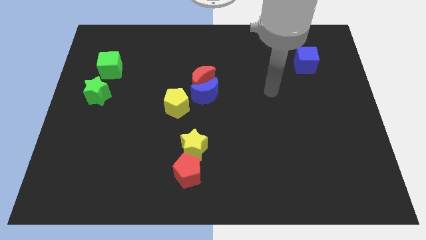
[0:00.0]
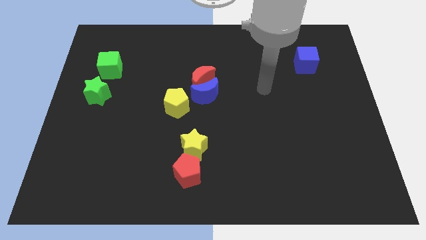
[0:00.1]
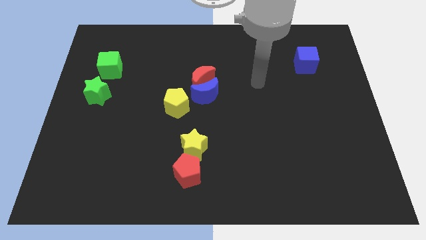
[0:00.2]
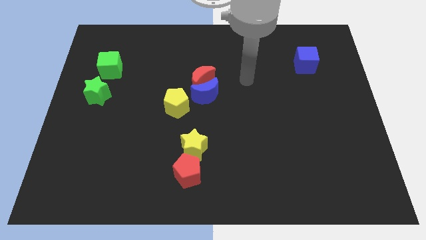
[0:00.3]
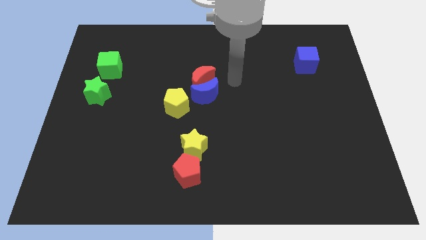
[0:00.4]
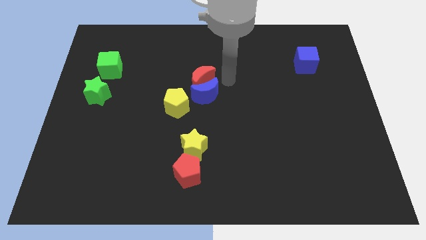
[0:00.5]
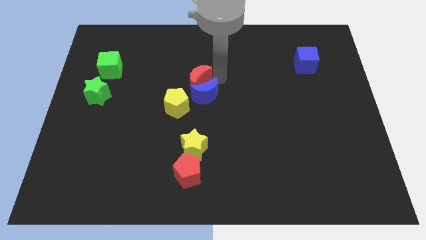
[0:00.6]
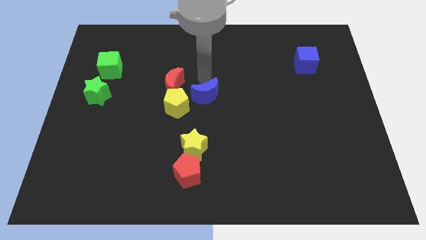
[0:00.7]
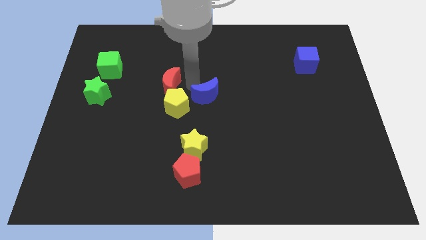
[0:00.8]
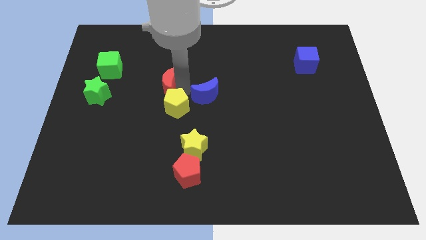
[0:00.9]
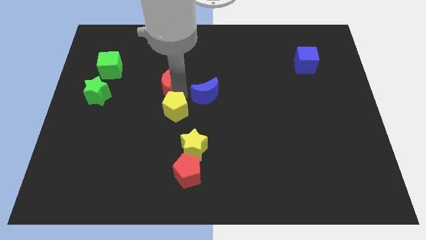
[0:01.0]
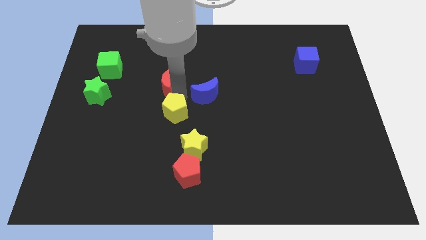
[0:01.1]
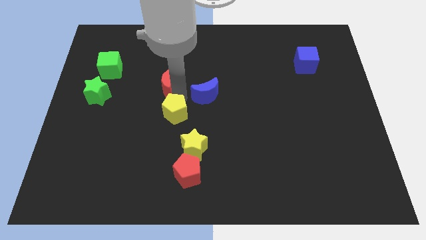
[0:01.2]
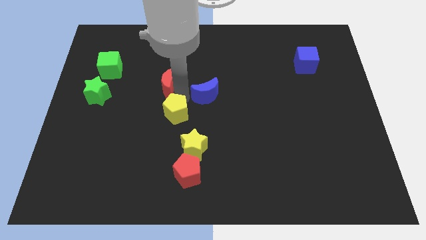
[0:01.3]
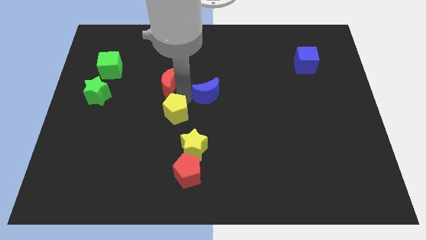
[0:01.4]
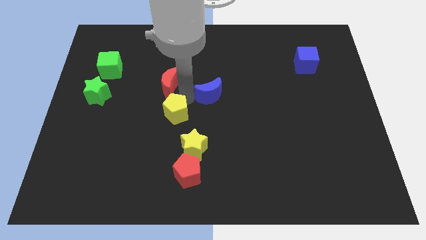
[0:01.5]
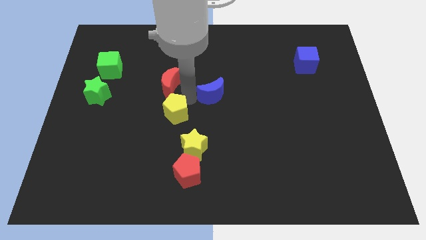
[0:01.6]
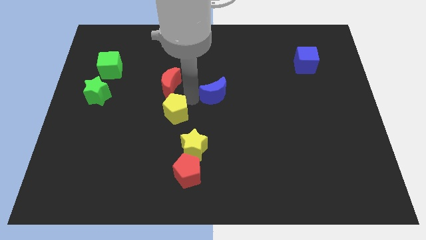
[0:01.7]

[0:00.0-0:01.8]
separate the blue moon from the red moon and yellow pentagon

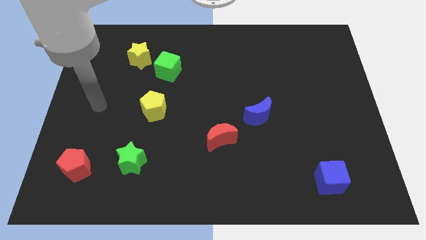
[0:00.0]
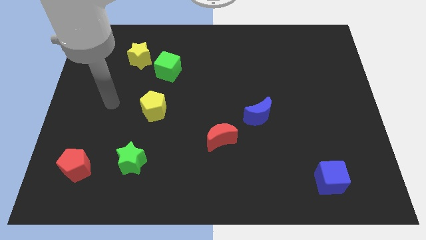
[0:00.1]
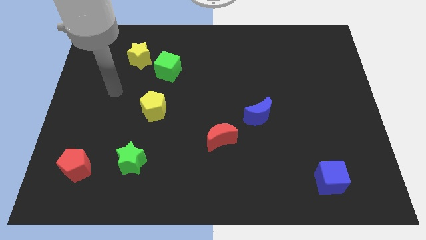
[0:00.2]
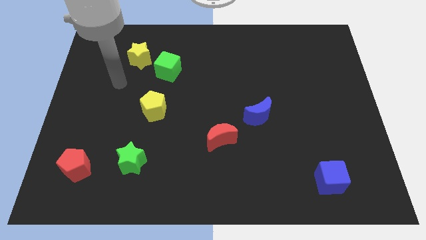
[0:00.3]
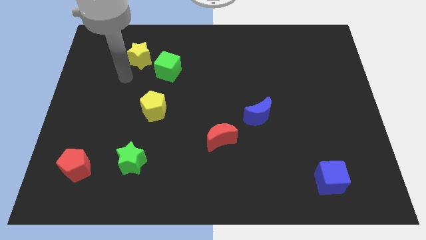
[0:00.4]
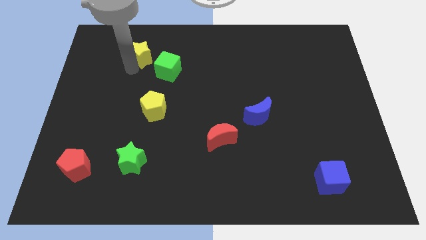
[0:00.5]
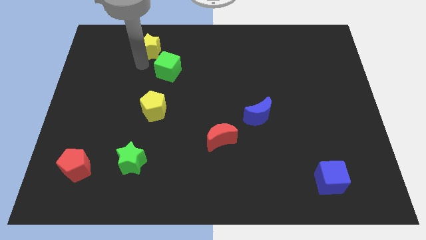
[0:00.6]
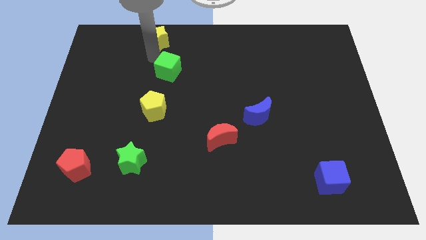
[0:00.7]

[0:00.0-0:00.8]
pull the green cube apart from the yellow star

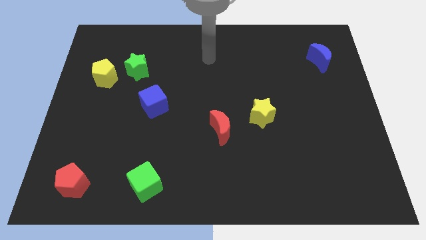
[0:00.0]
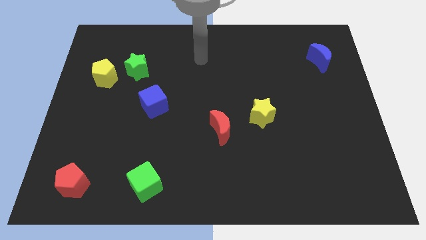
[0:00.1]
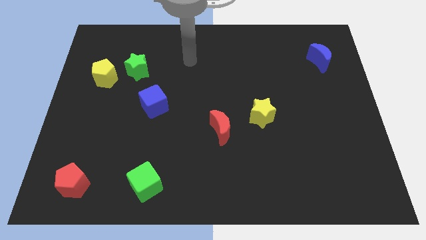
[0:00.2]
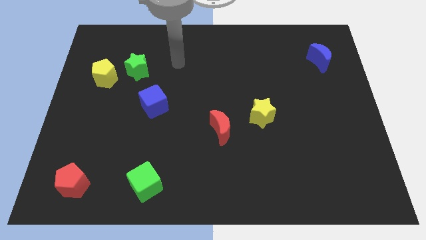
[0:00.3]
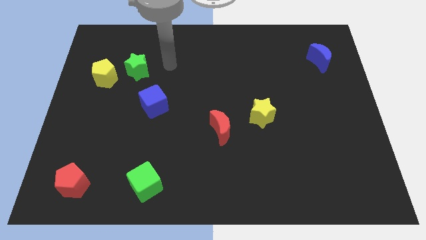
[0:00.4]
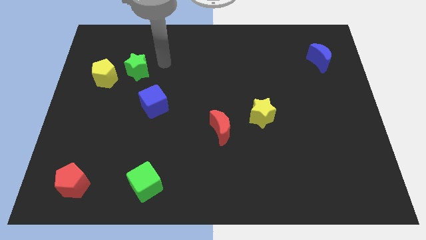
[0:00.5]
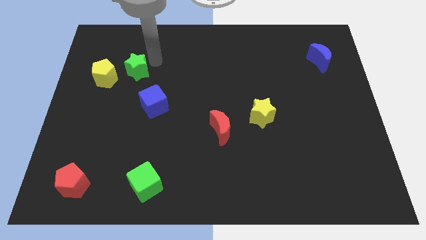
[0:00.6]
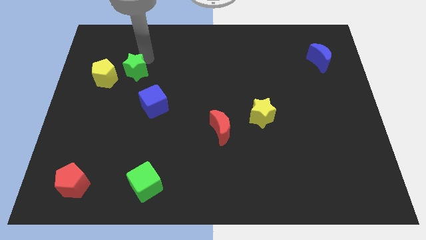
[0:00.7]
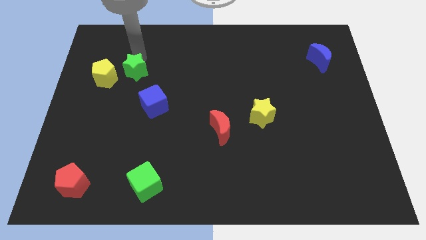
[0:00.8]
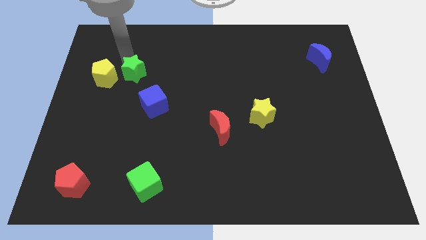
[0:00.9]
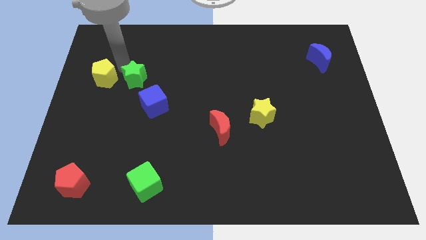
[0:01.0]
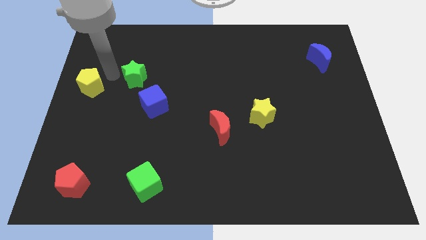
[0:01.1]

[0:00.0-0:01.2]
separate the green star from the yellow pentagon

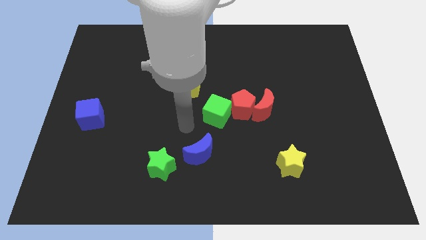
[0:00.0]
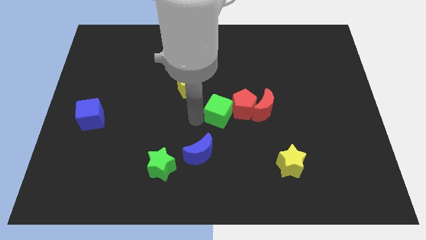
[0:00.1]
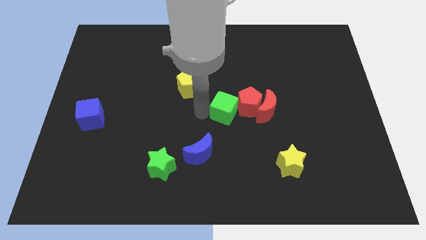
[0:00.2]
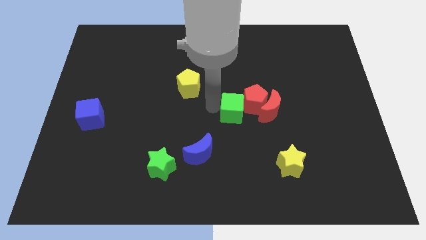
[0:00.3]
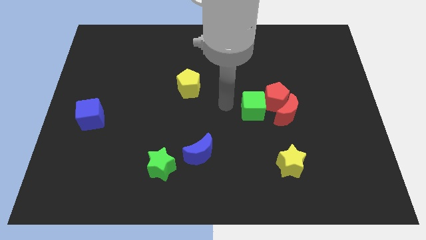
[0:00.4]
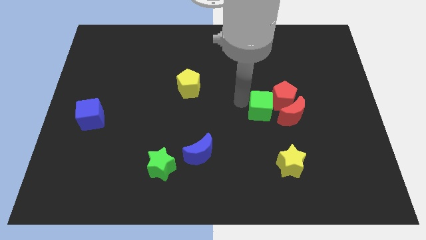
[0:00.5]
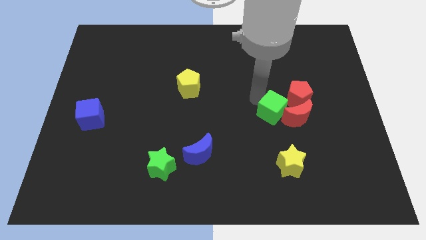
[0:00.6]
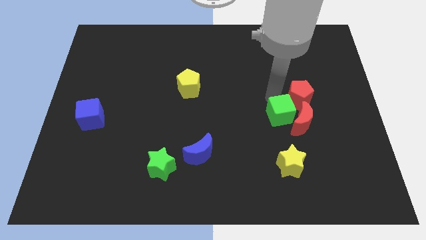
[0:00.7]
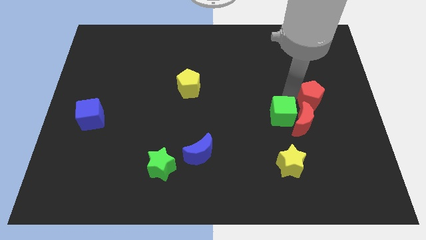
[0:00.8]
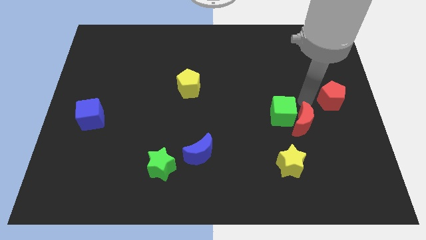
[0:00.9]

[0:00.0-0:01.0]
move the red moon away from the red pentagon

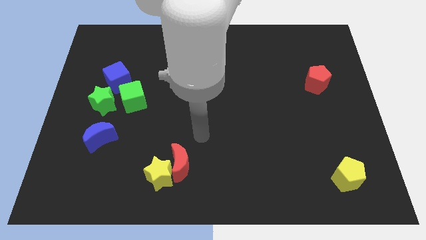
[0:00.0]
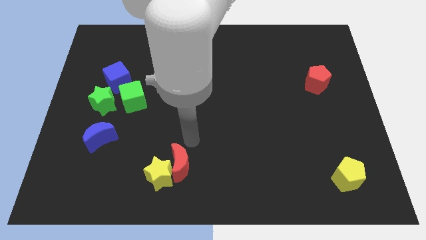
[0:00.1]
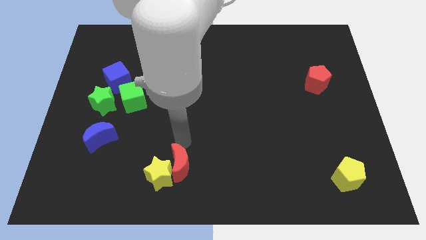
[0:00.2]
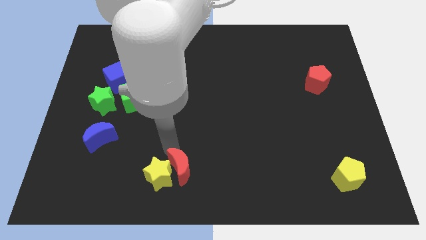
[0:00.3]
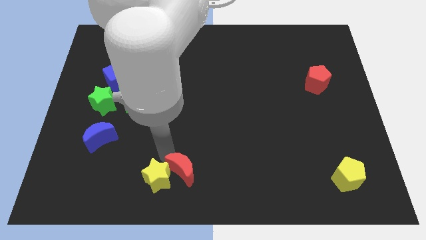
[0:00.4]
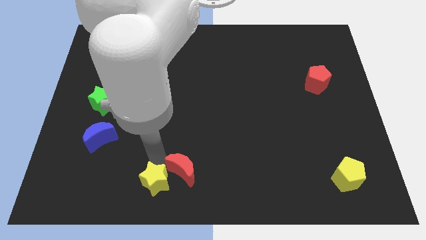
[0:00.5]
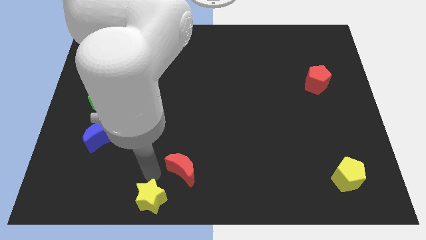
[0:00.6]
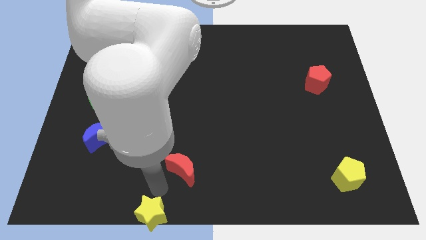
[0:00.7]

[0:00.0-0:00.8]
separate the red moon from the yellow star

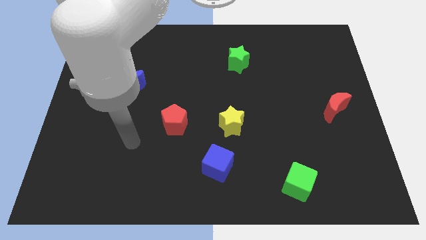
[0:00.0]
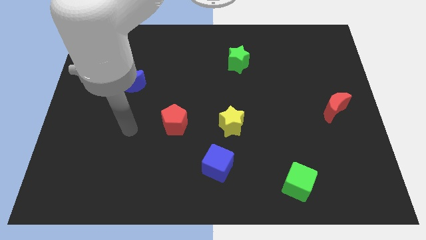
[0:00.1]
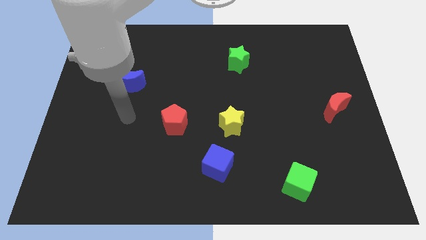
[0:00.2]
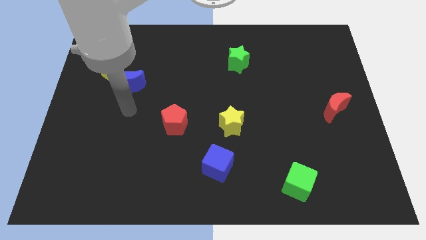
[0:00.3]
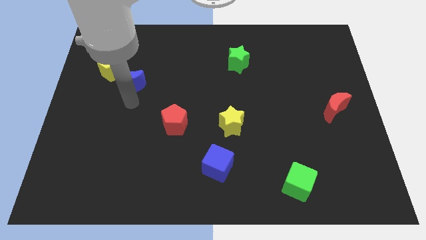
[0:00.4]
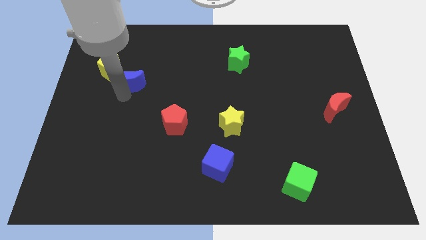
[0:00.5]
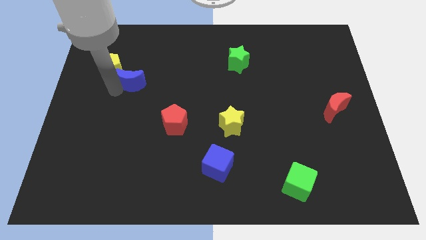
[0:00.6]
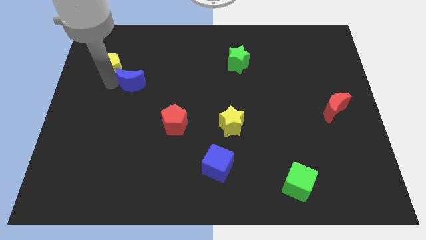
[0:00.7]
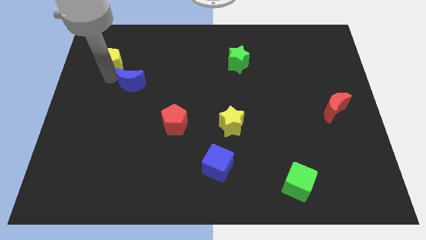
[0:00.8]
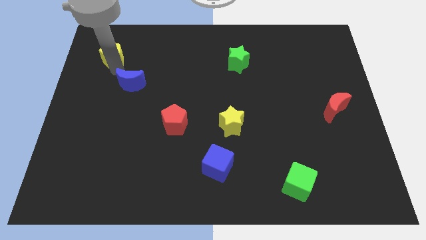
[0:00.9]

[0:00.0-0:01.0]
move the blue moon away from the yellow pentagon

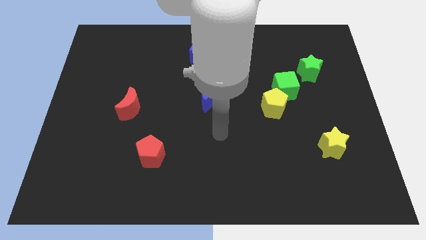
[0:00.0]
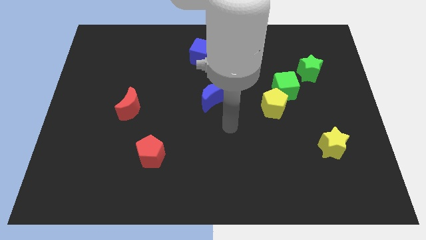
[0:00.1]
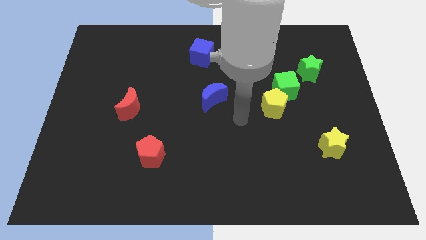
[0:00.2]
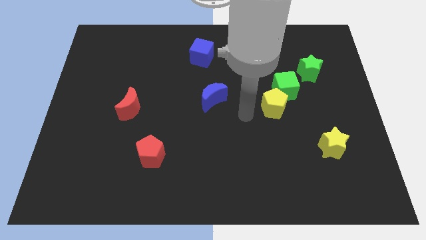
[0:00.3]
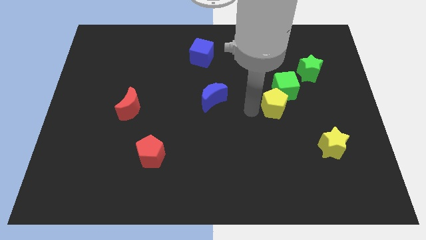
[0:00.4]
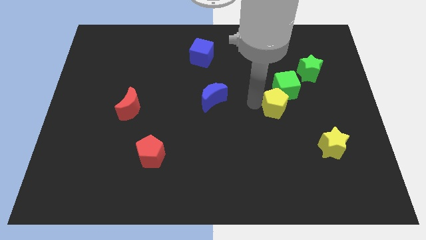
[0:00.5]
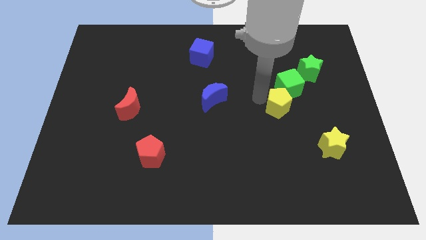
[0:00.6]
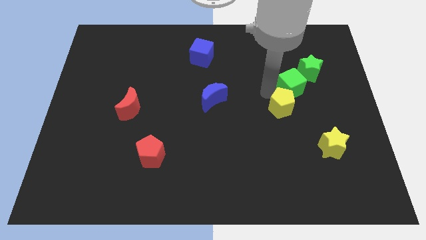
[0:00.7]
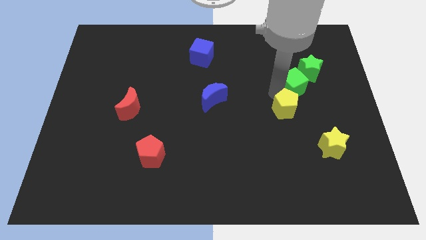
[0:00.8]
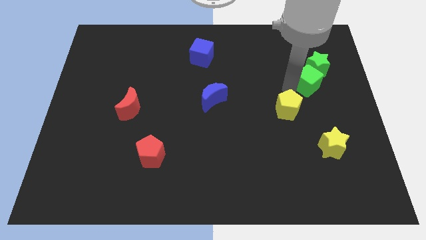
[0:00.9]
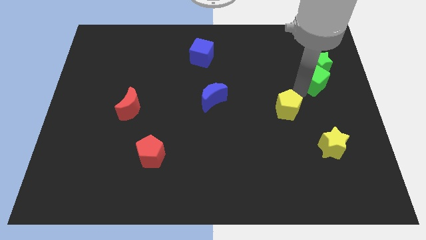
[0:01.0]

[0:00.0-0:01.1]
pull the yellow pentagon apart from the green cube

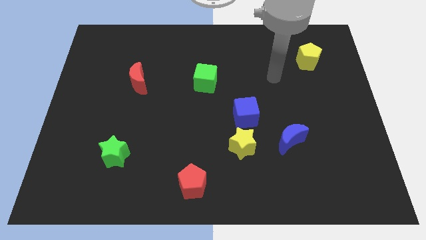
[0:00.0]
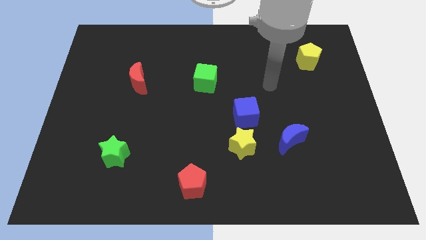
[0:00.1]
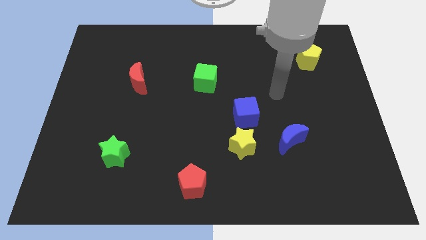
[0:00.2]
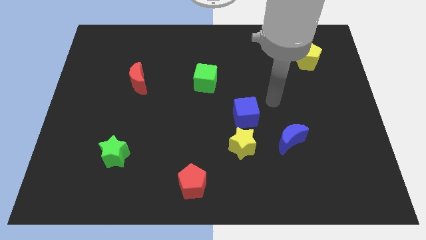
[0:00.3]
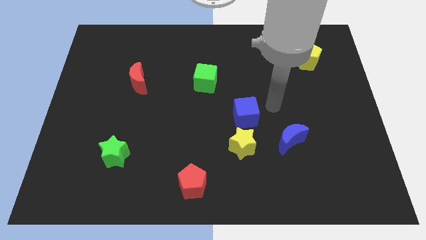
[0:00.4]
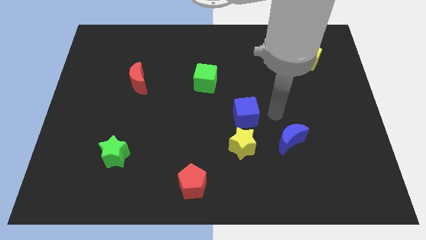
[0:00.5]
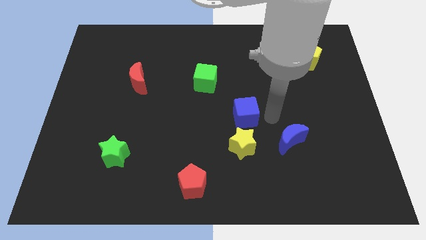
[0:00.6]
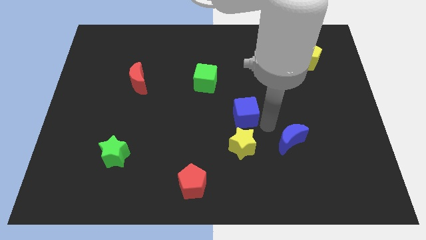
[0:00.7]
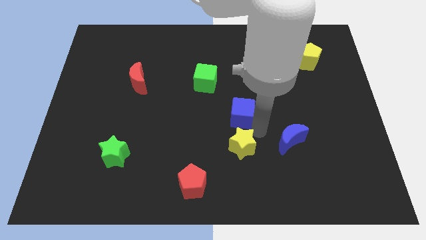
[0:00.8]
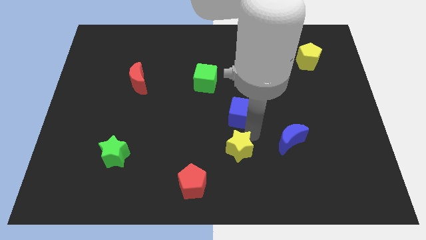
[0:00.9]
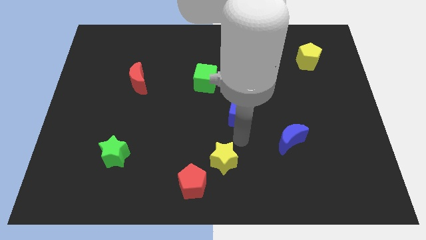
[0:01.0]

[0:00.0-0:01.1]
pull the blue cube apart from the yellow star

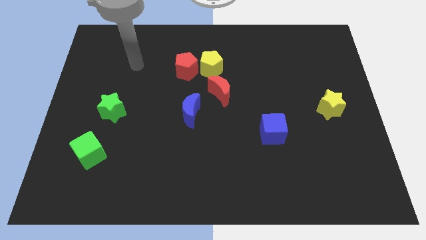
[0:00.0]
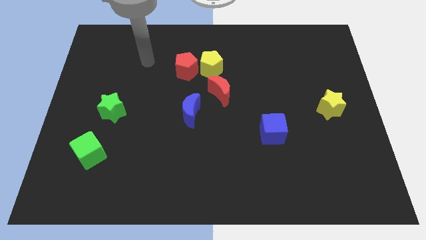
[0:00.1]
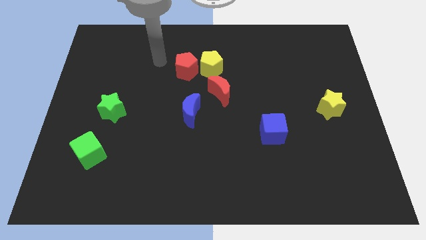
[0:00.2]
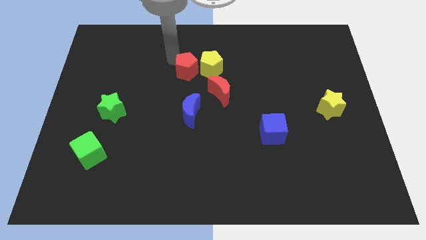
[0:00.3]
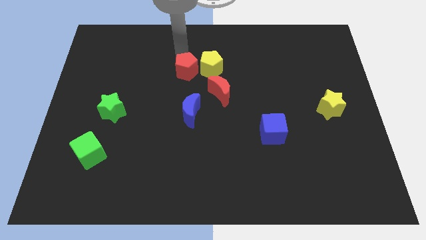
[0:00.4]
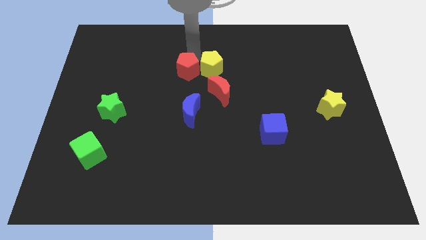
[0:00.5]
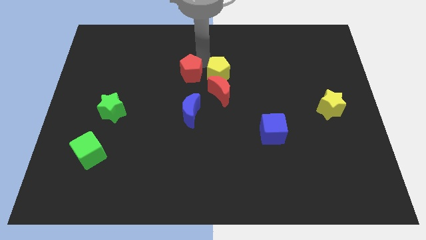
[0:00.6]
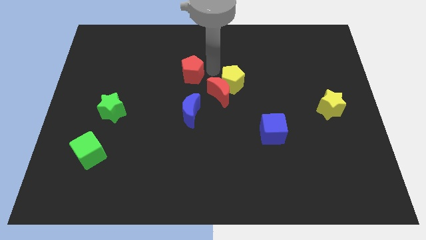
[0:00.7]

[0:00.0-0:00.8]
move the red pentagon away from the yellow pentagon
